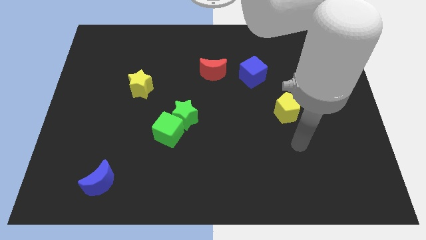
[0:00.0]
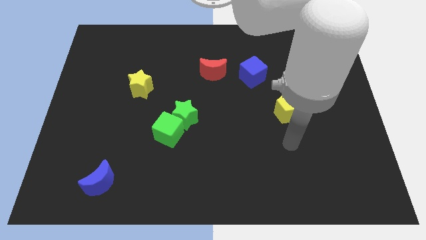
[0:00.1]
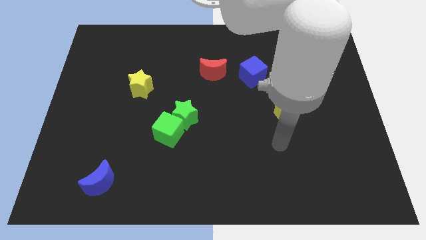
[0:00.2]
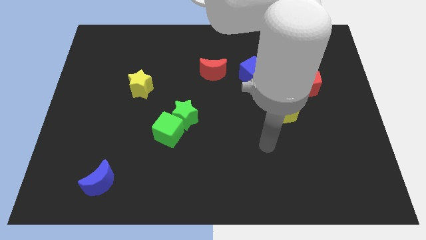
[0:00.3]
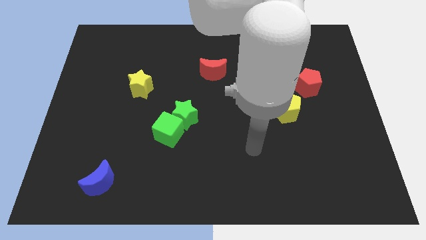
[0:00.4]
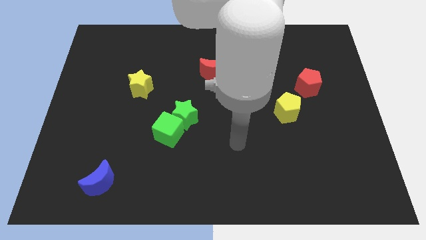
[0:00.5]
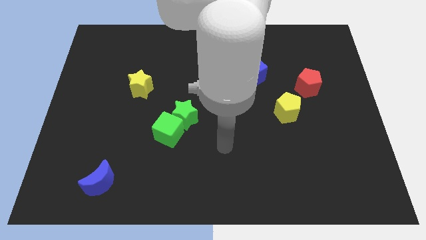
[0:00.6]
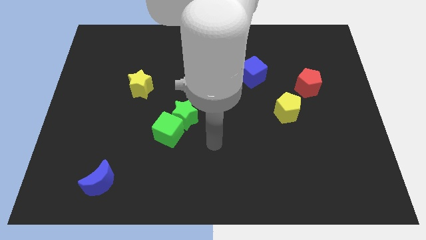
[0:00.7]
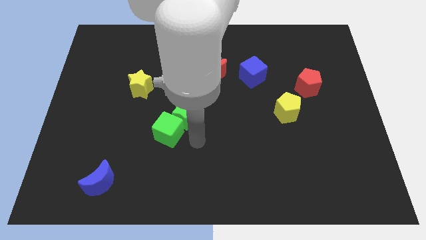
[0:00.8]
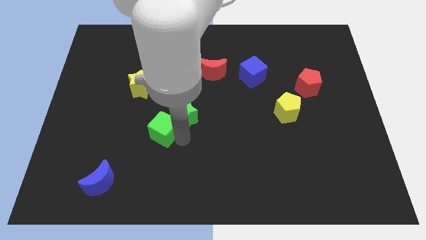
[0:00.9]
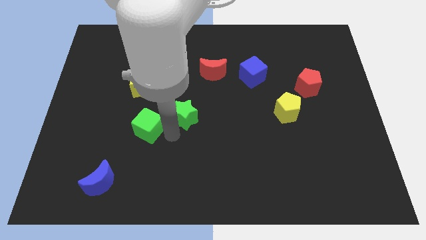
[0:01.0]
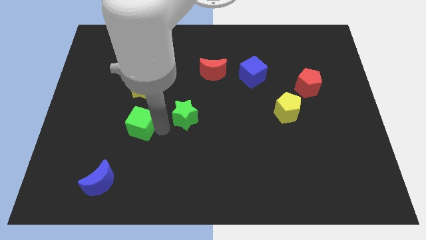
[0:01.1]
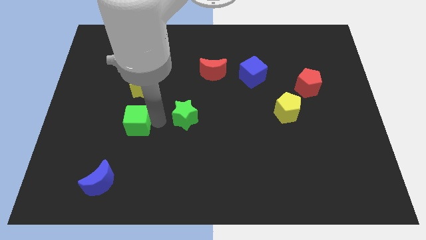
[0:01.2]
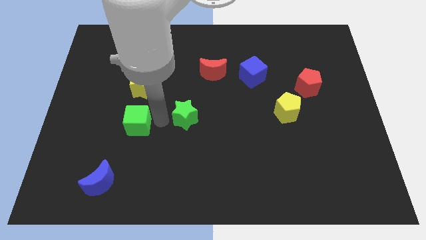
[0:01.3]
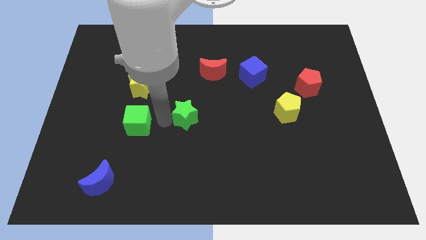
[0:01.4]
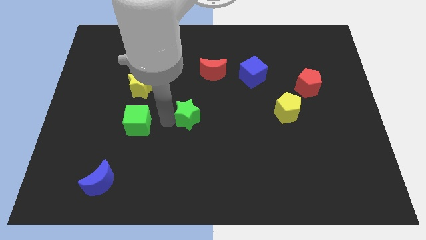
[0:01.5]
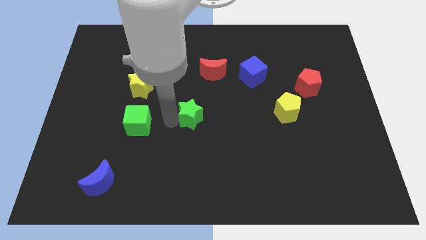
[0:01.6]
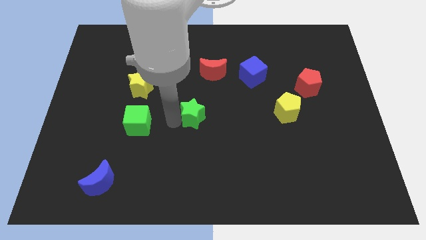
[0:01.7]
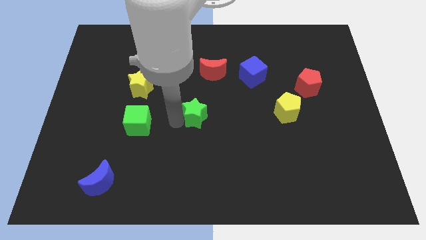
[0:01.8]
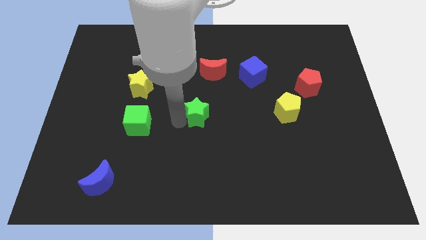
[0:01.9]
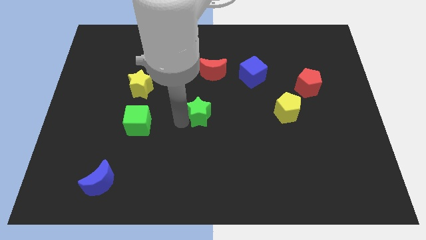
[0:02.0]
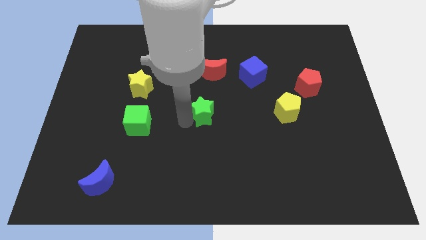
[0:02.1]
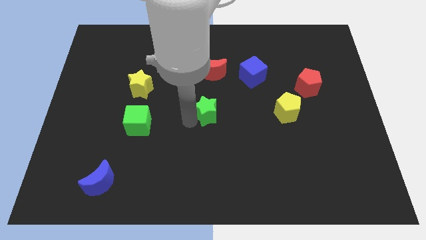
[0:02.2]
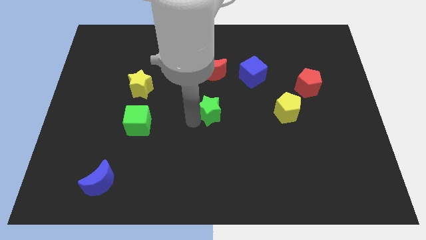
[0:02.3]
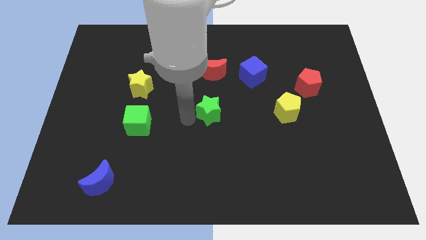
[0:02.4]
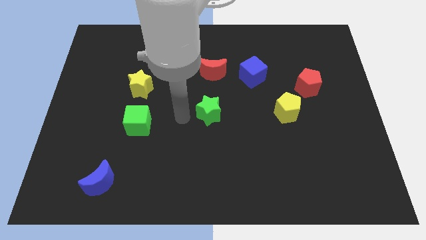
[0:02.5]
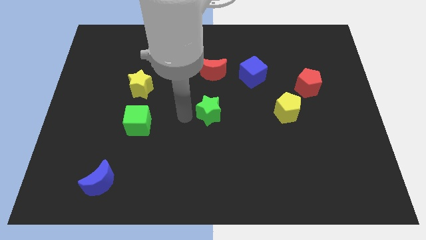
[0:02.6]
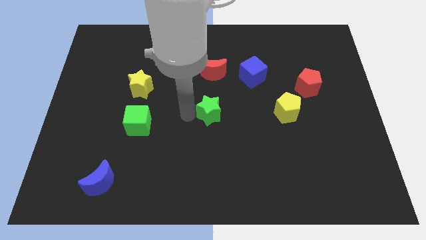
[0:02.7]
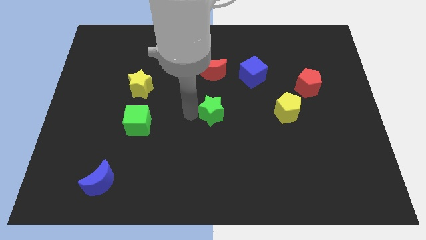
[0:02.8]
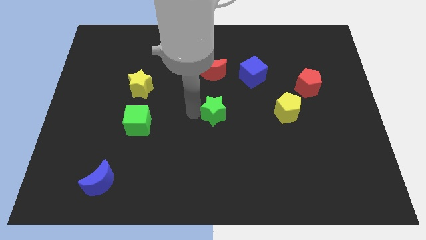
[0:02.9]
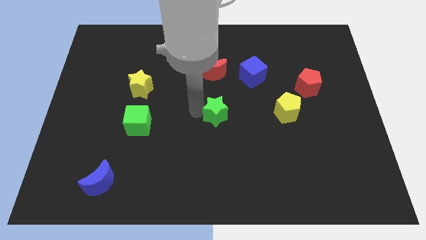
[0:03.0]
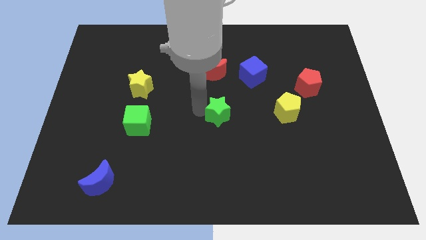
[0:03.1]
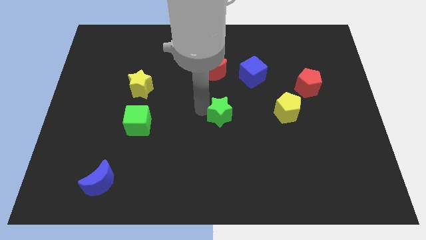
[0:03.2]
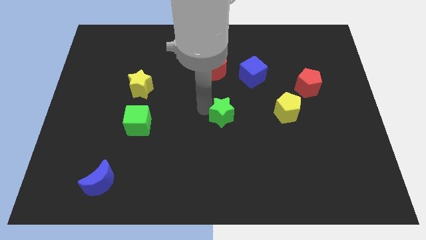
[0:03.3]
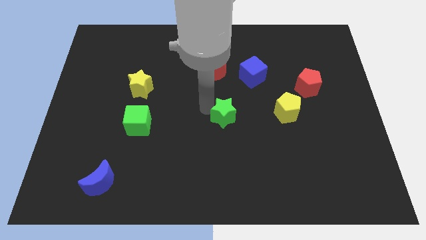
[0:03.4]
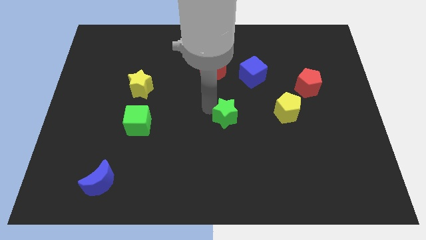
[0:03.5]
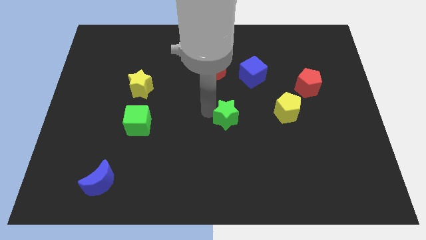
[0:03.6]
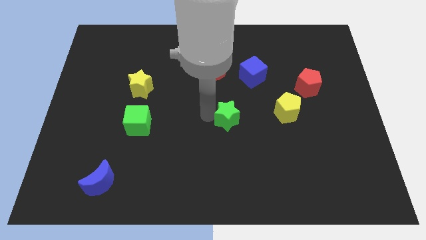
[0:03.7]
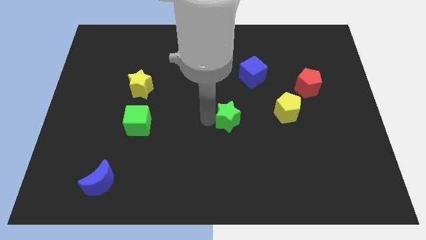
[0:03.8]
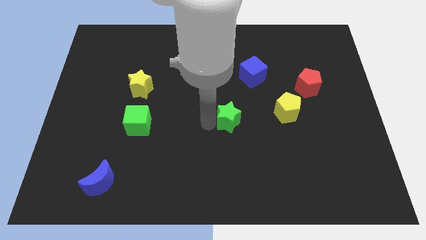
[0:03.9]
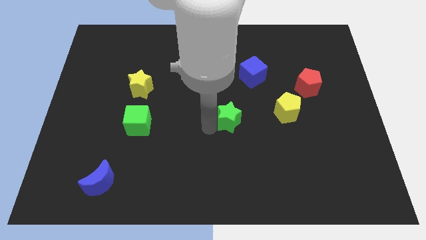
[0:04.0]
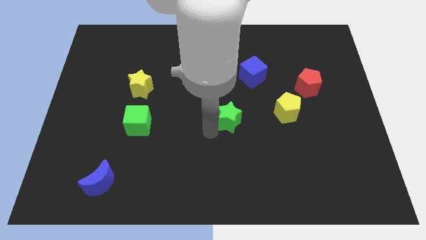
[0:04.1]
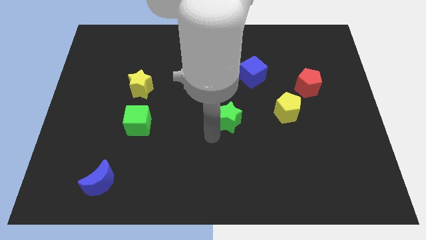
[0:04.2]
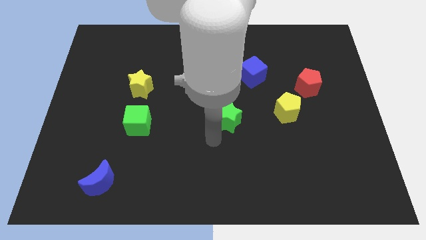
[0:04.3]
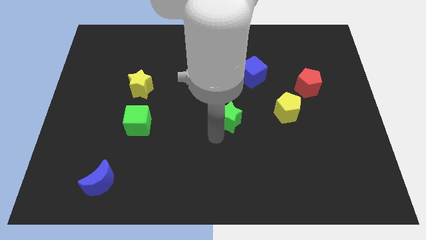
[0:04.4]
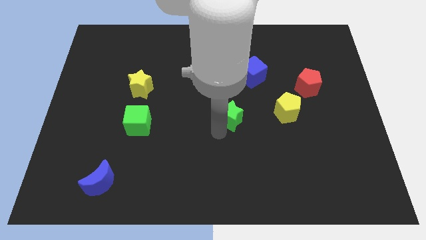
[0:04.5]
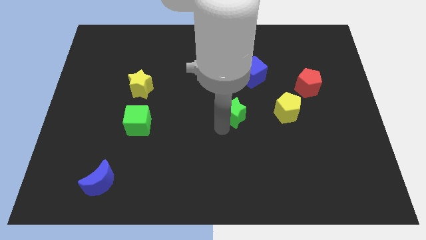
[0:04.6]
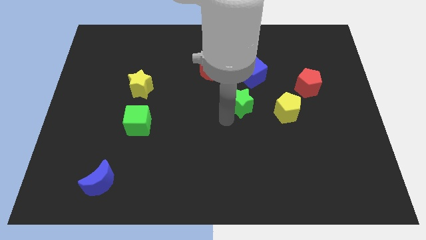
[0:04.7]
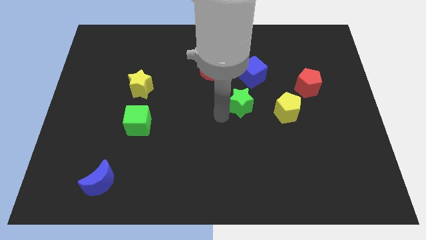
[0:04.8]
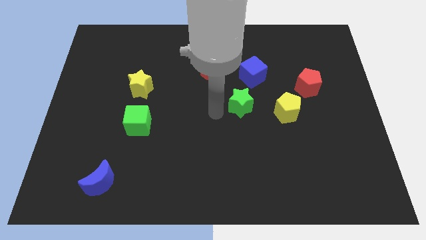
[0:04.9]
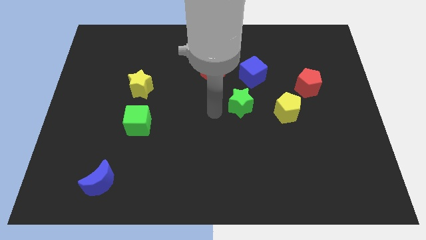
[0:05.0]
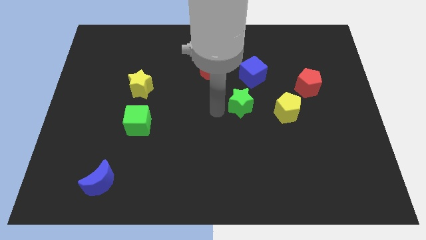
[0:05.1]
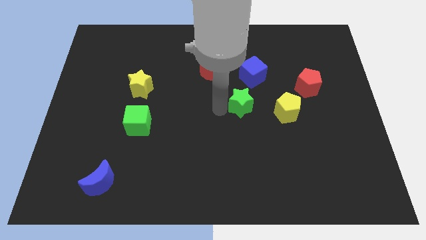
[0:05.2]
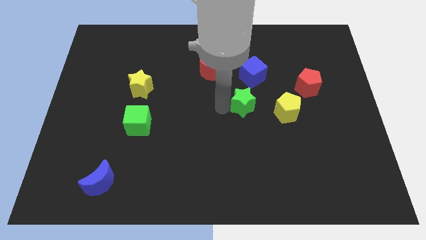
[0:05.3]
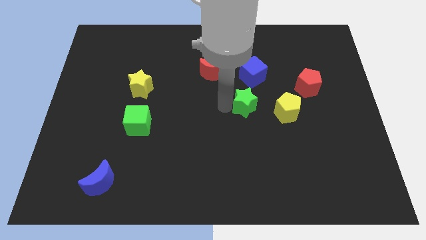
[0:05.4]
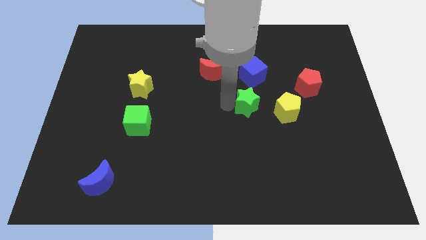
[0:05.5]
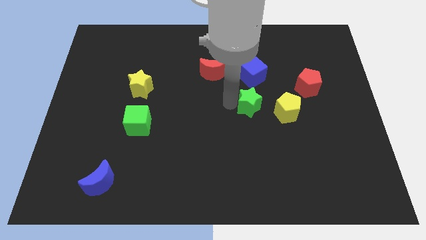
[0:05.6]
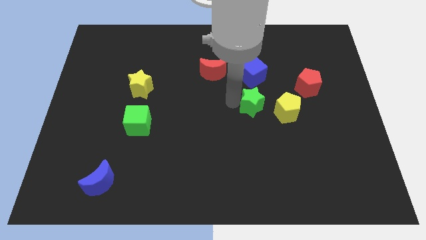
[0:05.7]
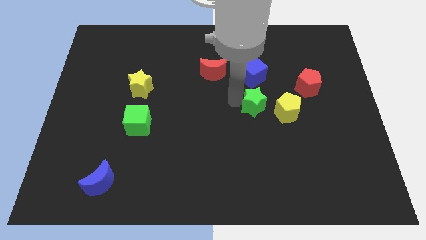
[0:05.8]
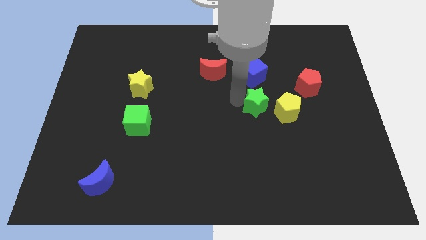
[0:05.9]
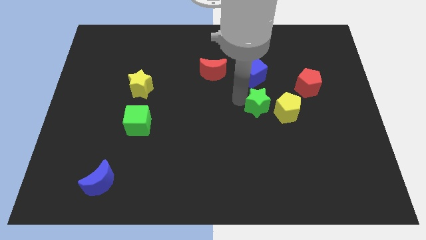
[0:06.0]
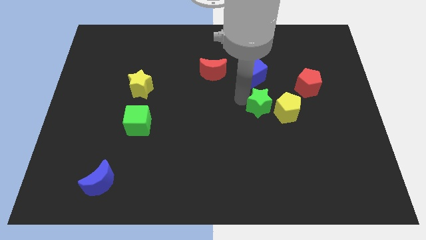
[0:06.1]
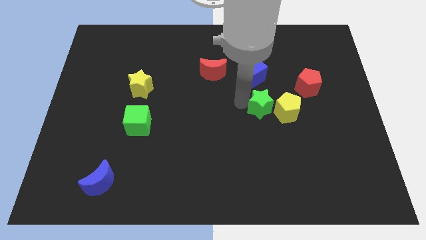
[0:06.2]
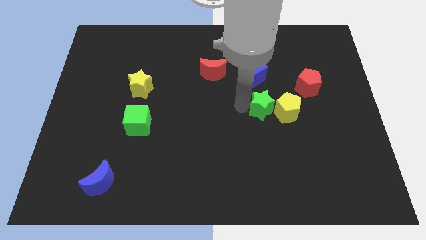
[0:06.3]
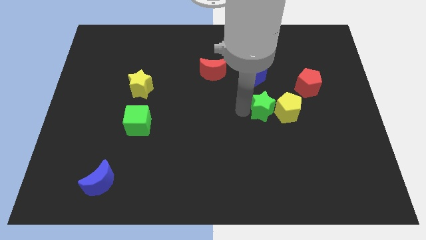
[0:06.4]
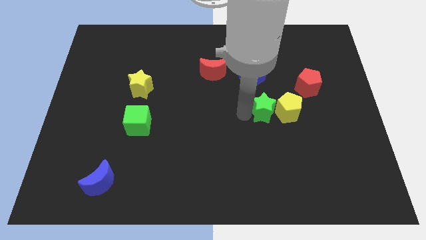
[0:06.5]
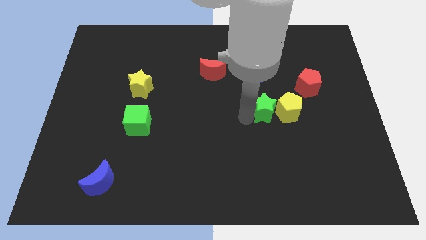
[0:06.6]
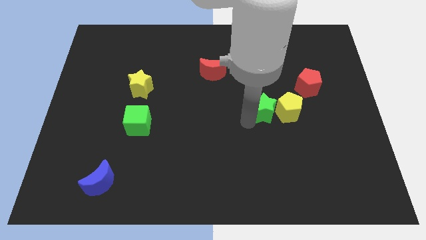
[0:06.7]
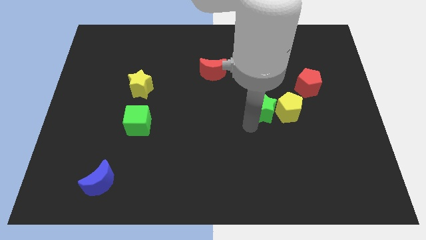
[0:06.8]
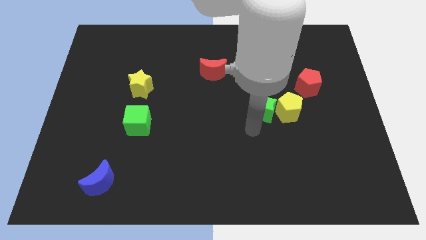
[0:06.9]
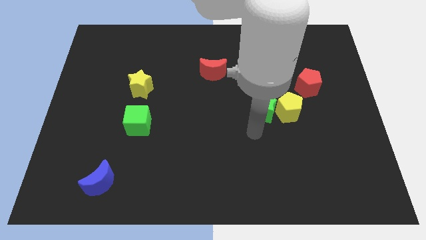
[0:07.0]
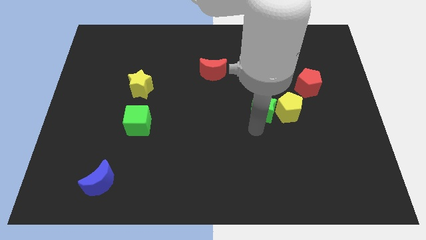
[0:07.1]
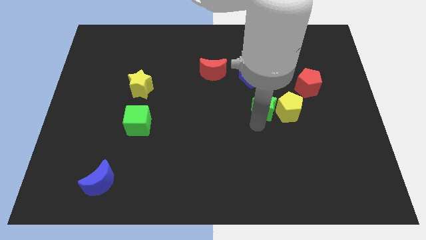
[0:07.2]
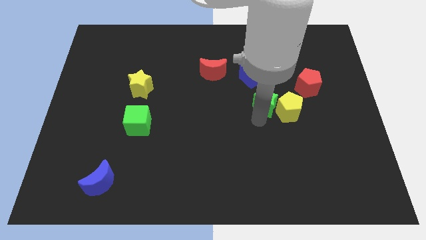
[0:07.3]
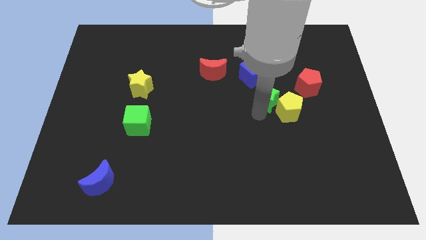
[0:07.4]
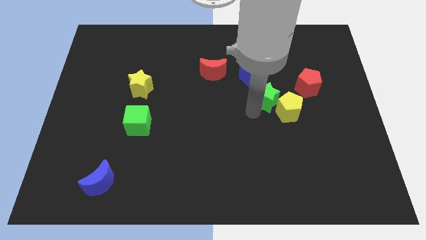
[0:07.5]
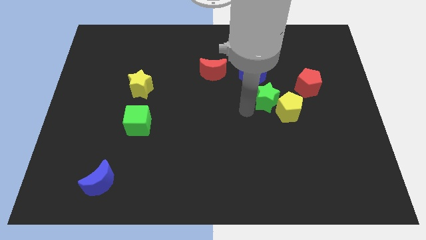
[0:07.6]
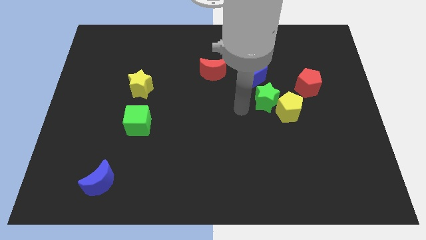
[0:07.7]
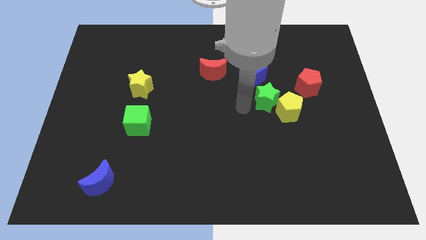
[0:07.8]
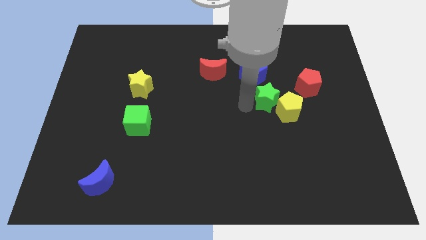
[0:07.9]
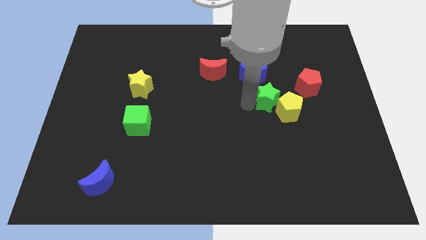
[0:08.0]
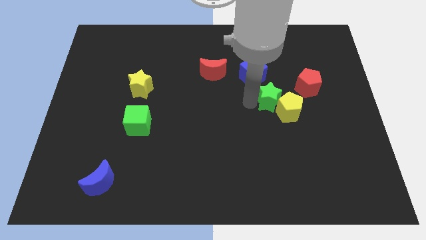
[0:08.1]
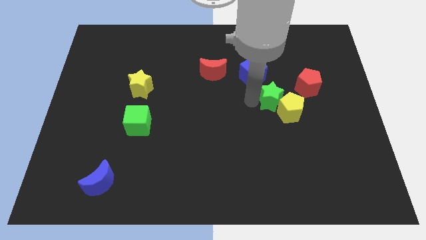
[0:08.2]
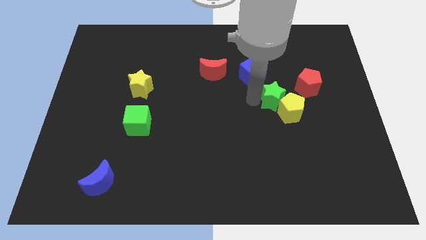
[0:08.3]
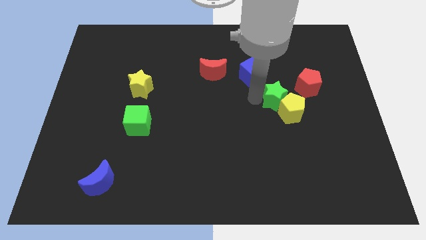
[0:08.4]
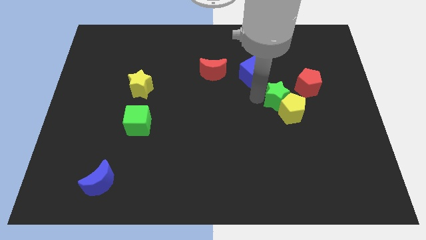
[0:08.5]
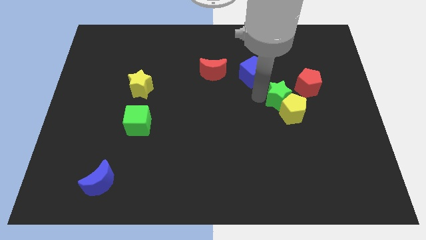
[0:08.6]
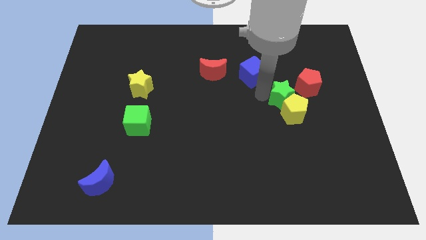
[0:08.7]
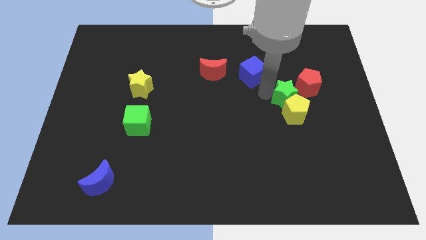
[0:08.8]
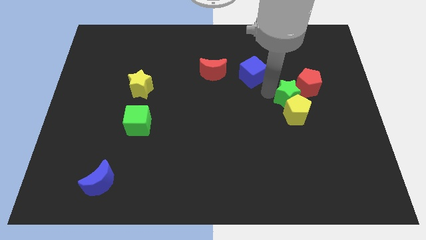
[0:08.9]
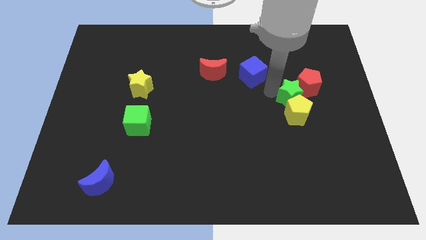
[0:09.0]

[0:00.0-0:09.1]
put the green star to the red pentagon
